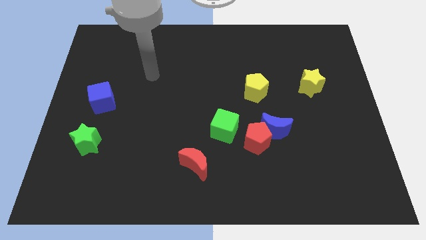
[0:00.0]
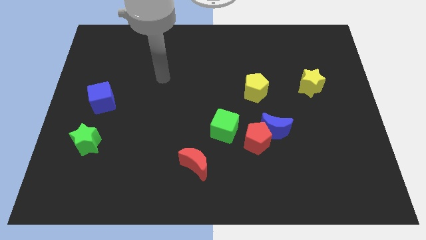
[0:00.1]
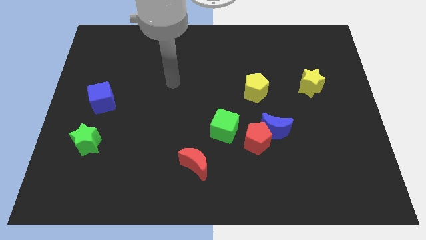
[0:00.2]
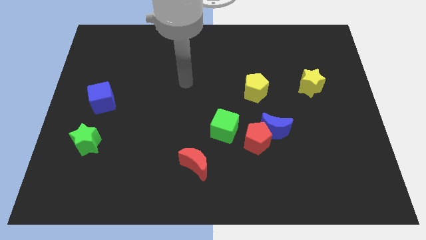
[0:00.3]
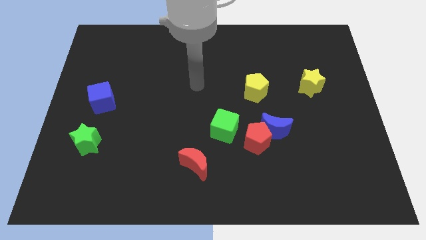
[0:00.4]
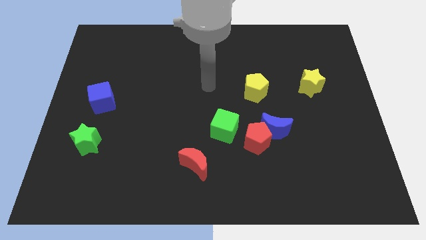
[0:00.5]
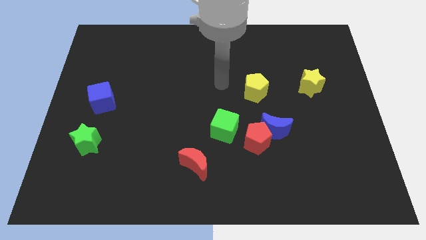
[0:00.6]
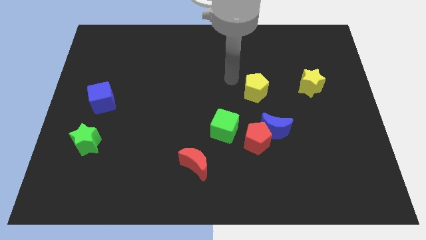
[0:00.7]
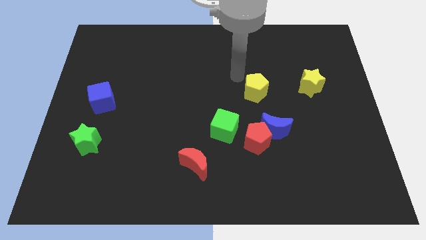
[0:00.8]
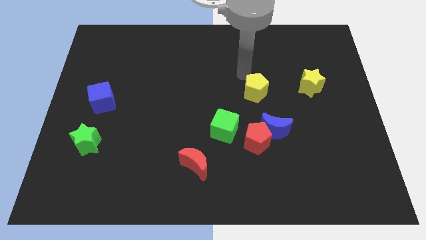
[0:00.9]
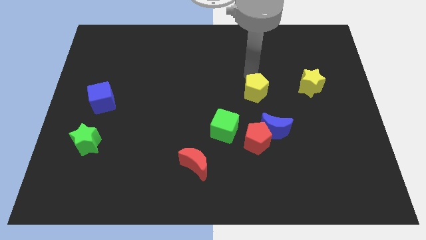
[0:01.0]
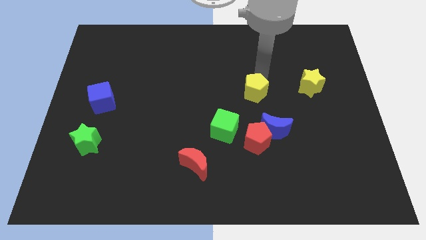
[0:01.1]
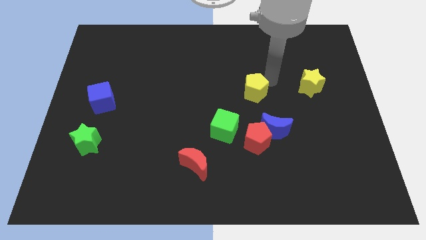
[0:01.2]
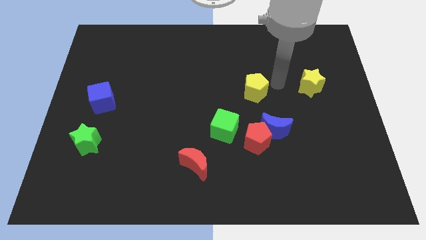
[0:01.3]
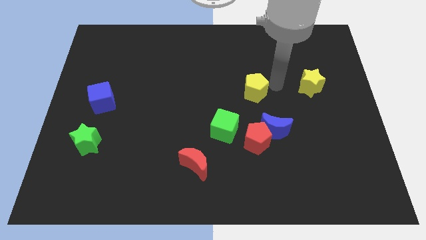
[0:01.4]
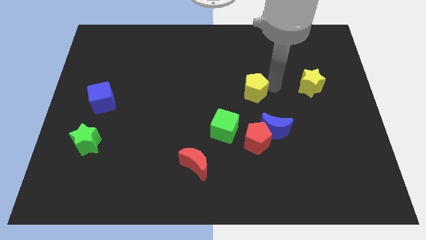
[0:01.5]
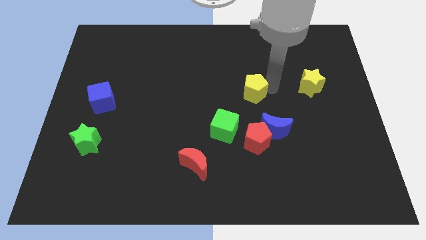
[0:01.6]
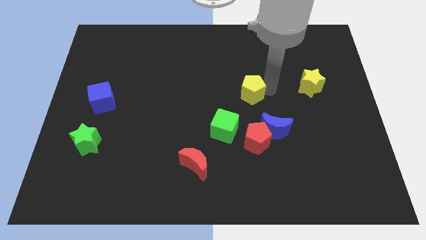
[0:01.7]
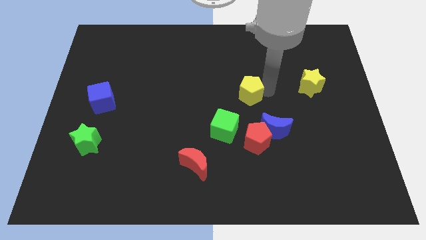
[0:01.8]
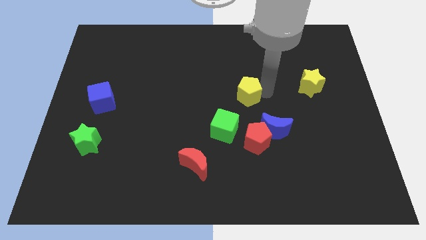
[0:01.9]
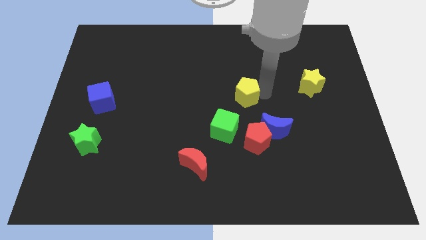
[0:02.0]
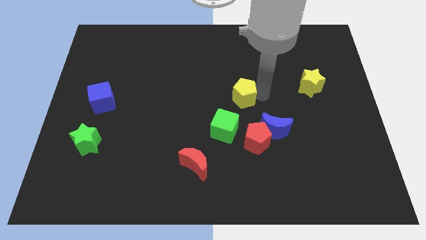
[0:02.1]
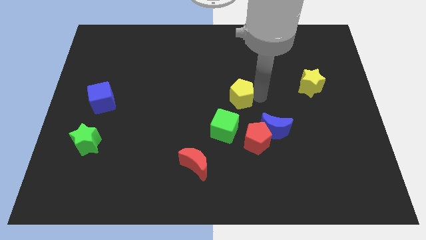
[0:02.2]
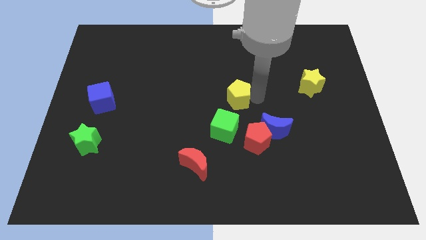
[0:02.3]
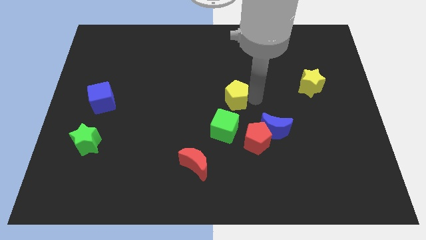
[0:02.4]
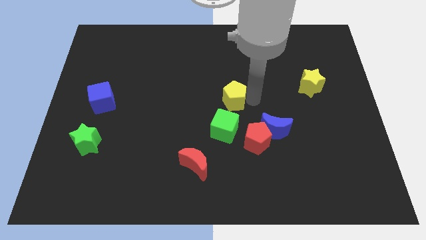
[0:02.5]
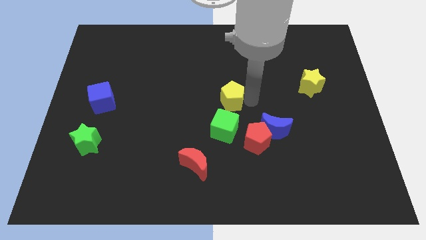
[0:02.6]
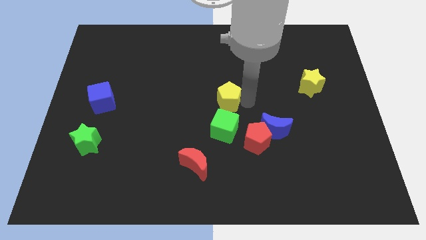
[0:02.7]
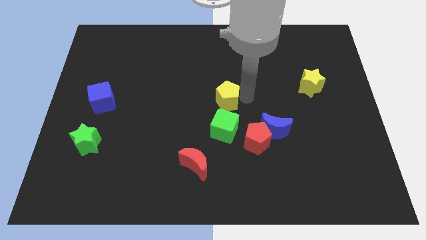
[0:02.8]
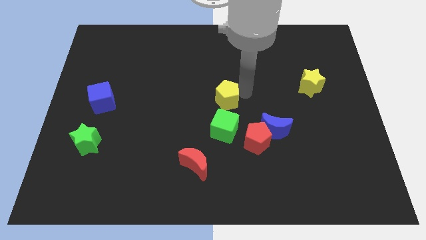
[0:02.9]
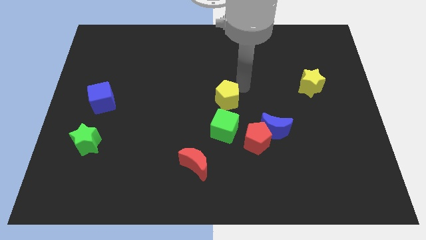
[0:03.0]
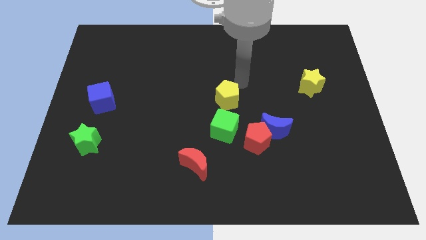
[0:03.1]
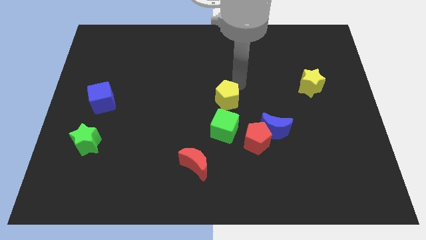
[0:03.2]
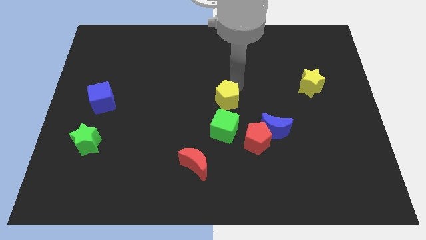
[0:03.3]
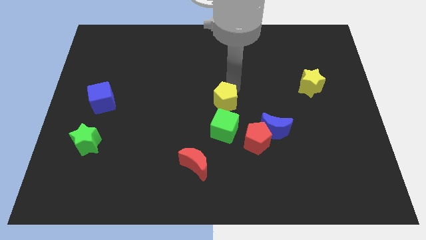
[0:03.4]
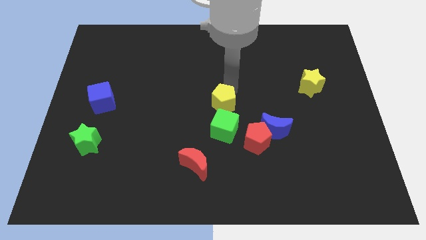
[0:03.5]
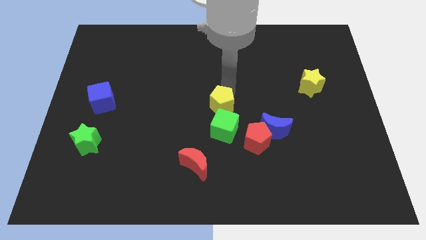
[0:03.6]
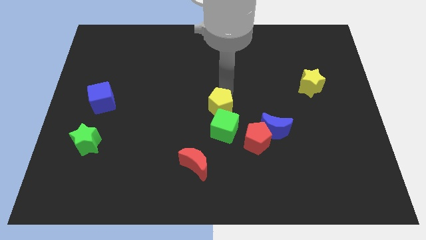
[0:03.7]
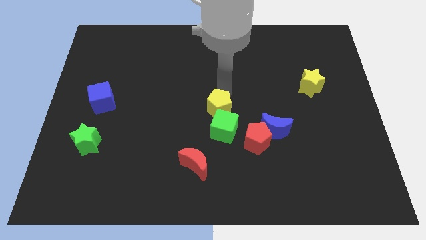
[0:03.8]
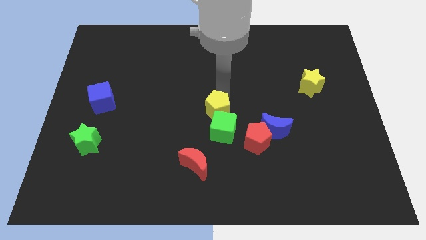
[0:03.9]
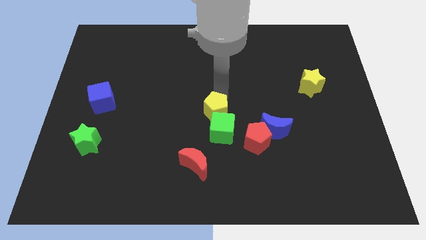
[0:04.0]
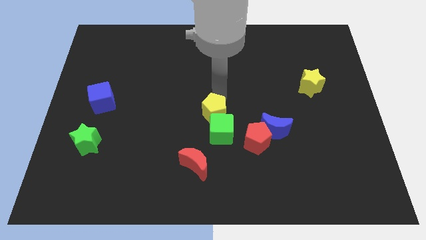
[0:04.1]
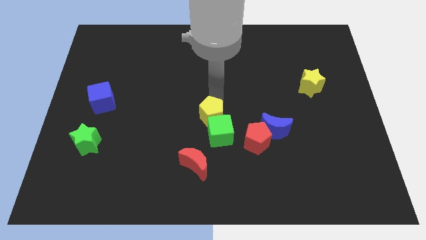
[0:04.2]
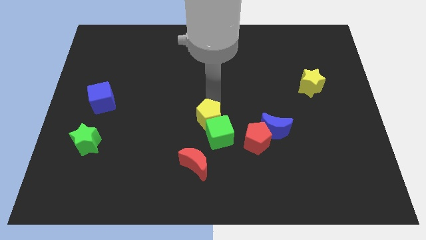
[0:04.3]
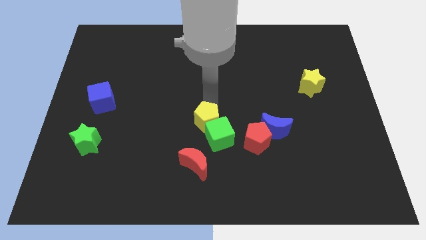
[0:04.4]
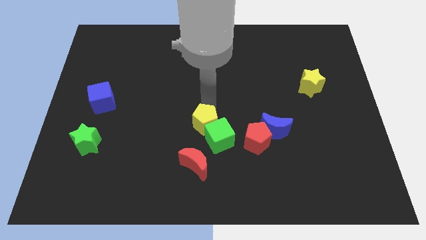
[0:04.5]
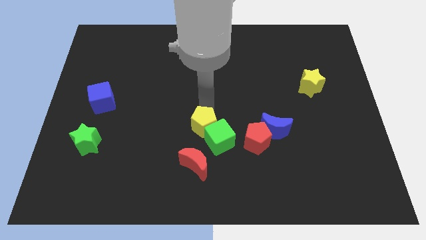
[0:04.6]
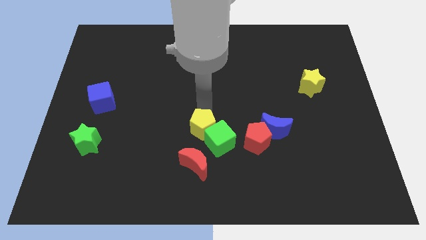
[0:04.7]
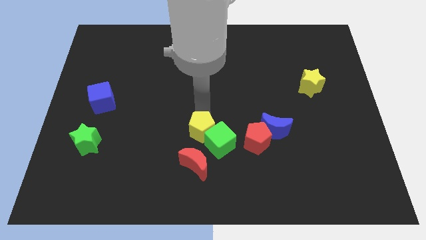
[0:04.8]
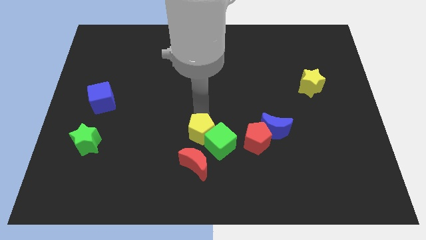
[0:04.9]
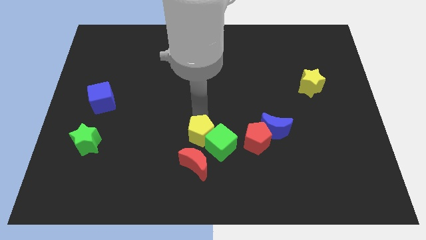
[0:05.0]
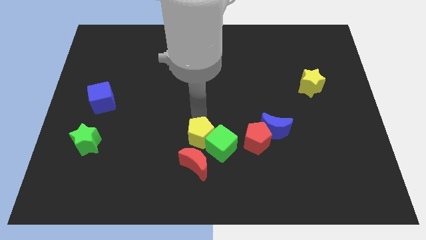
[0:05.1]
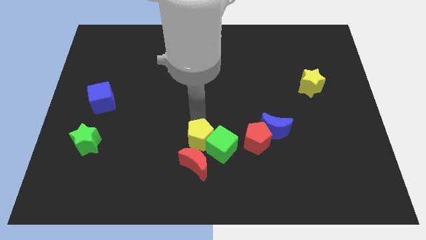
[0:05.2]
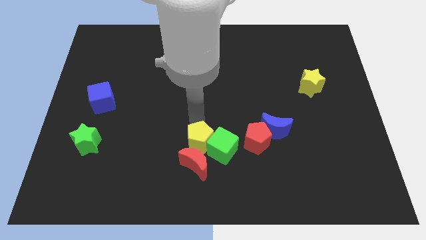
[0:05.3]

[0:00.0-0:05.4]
put the yellow pentagon next to the red moon

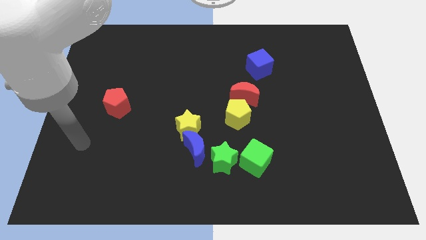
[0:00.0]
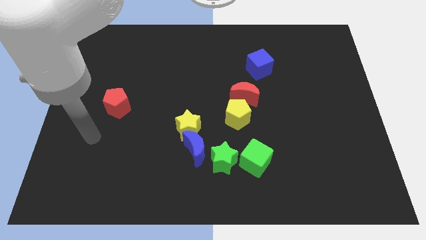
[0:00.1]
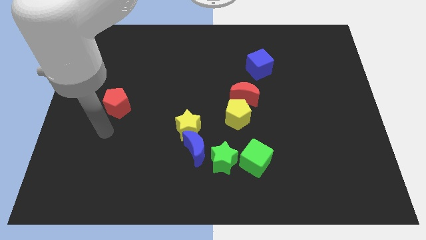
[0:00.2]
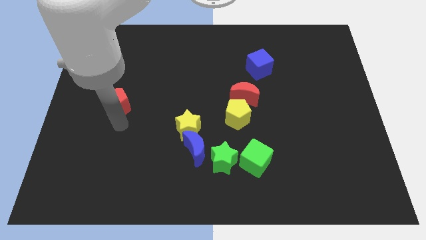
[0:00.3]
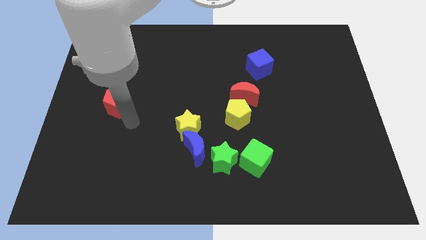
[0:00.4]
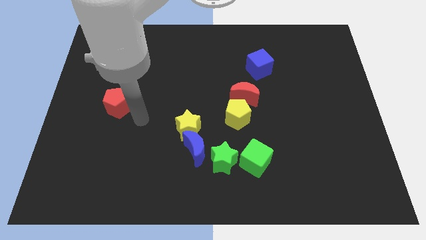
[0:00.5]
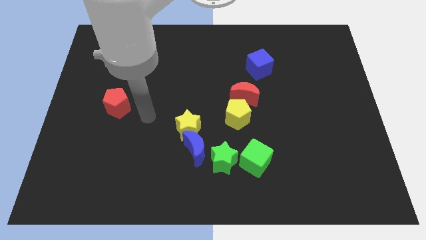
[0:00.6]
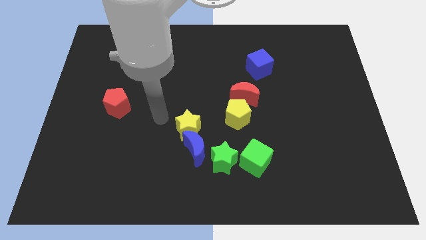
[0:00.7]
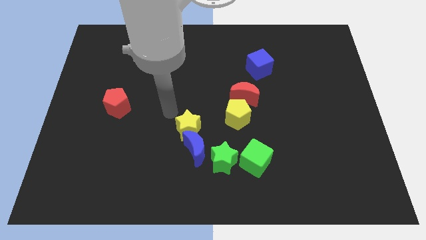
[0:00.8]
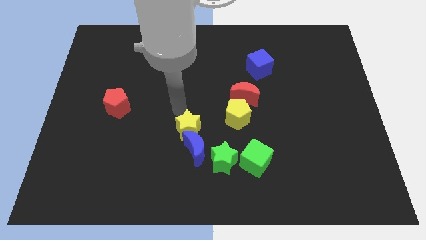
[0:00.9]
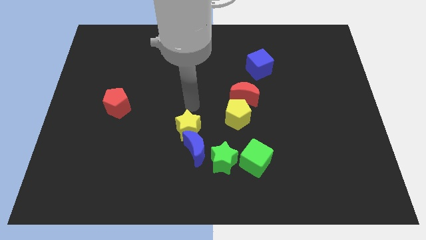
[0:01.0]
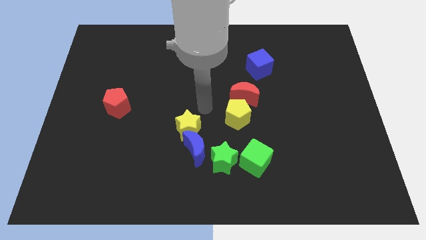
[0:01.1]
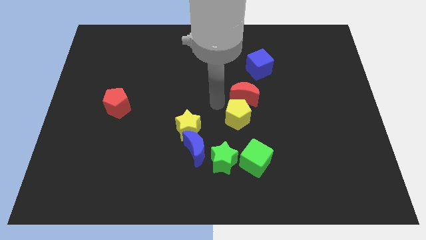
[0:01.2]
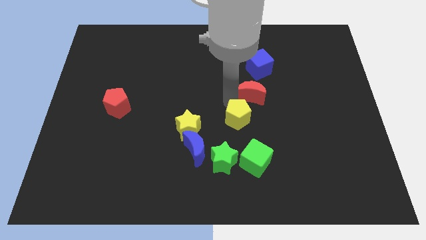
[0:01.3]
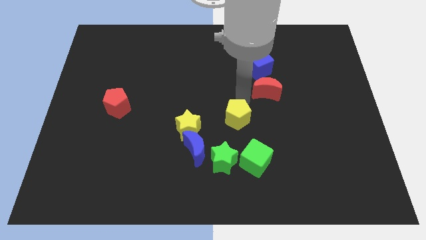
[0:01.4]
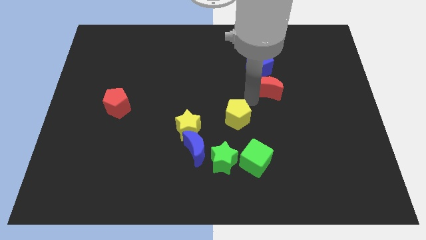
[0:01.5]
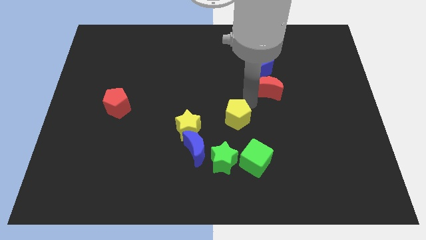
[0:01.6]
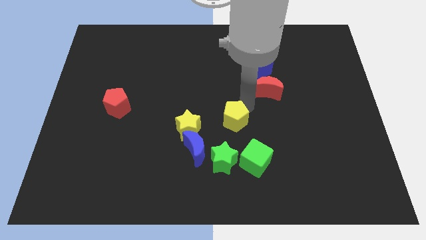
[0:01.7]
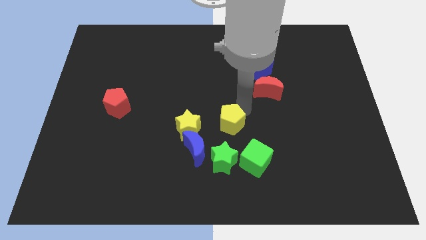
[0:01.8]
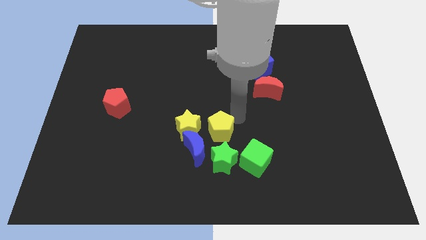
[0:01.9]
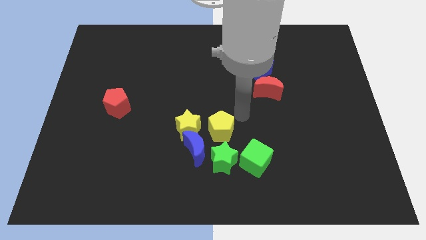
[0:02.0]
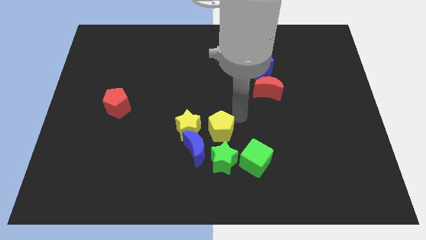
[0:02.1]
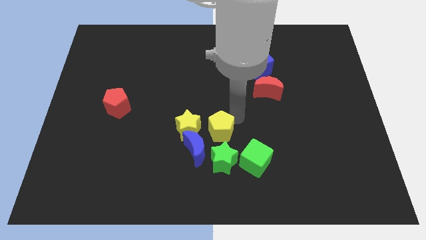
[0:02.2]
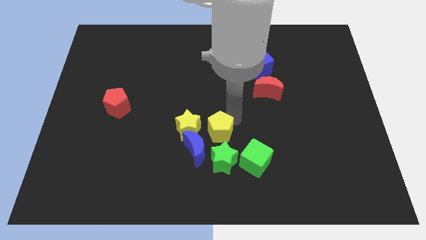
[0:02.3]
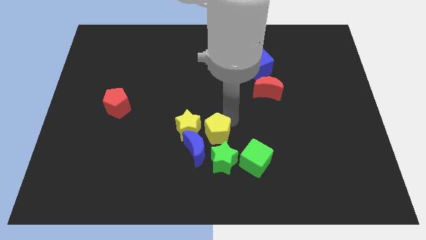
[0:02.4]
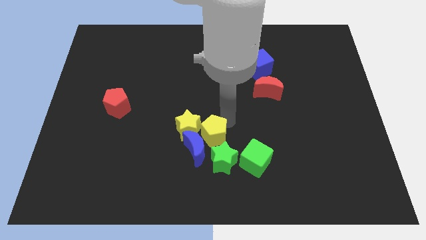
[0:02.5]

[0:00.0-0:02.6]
slide the yellow pentagon to the blue moon
